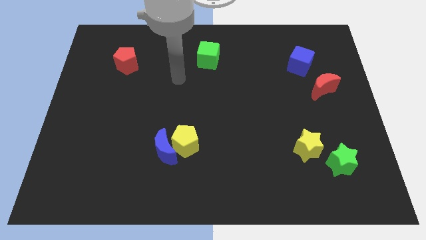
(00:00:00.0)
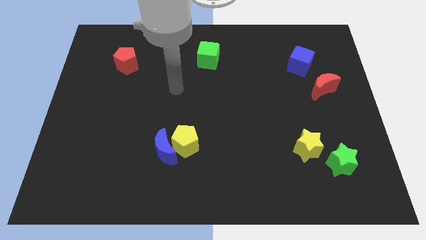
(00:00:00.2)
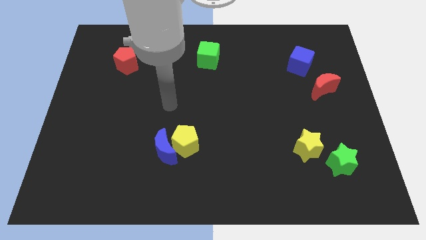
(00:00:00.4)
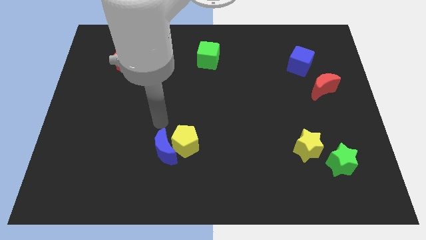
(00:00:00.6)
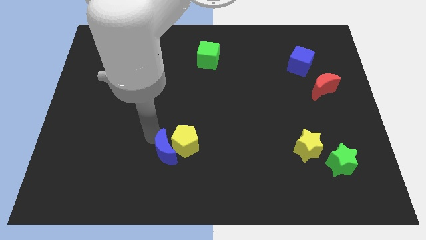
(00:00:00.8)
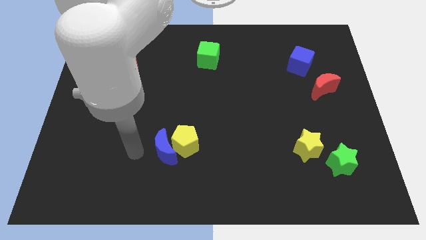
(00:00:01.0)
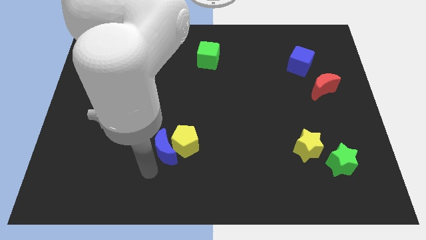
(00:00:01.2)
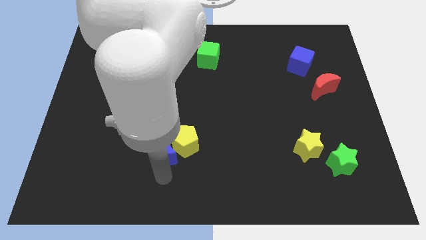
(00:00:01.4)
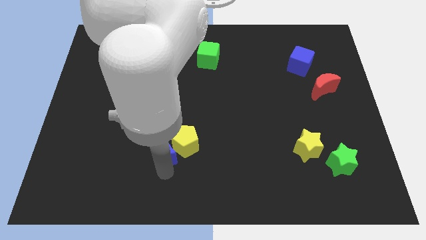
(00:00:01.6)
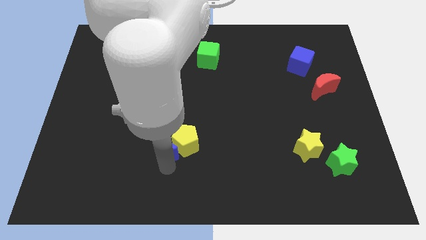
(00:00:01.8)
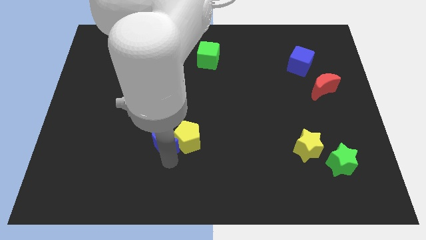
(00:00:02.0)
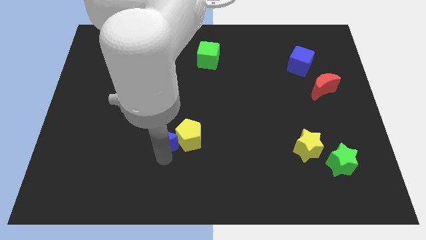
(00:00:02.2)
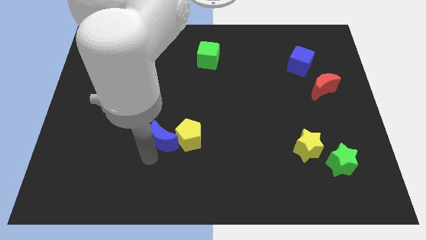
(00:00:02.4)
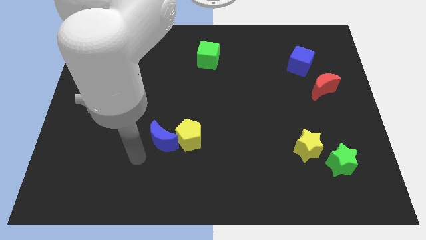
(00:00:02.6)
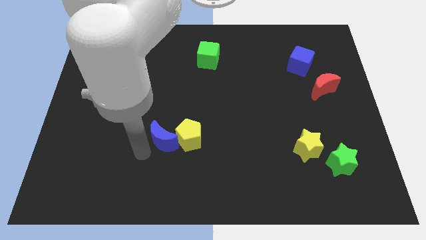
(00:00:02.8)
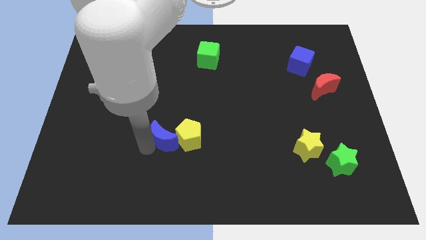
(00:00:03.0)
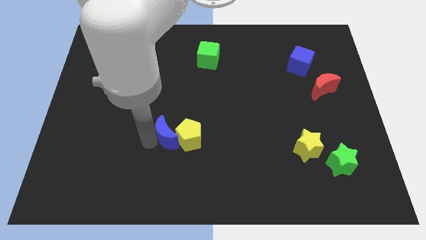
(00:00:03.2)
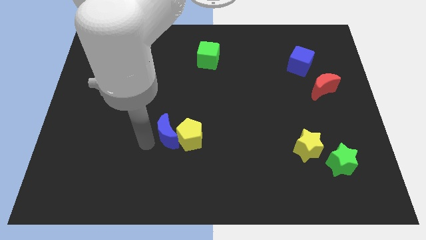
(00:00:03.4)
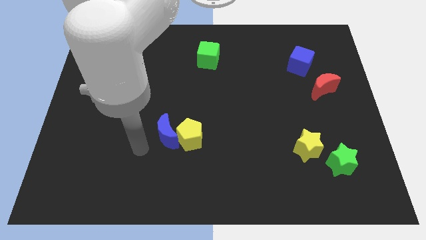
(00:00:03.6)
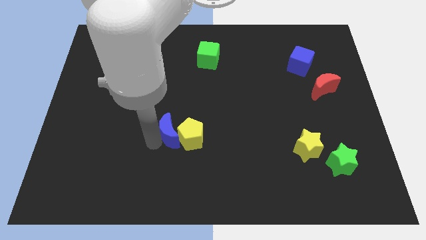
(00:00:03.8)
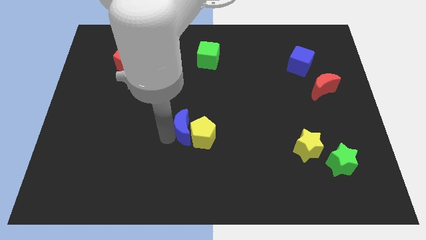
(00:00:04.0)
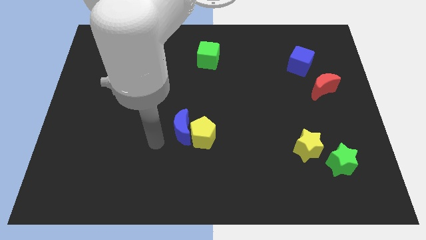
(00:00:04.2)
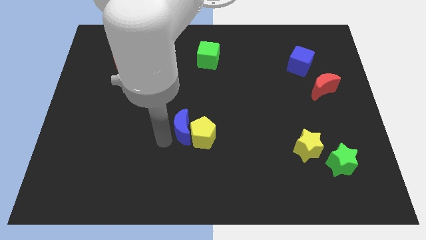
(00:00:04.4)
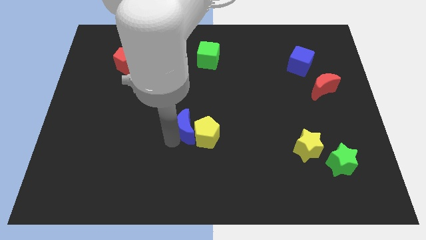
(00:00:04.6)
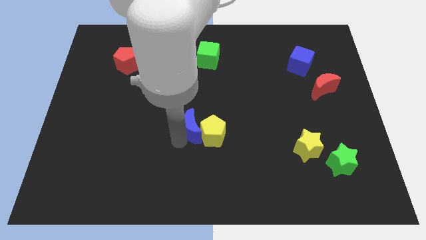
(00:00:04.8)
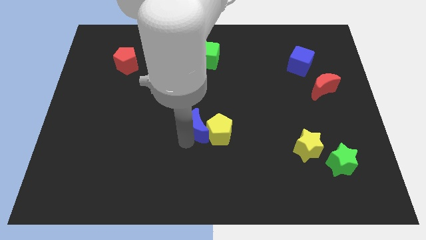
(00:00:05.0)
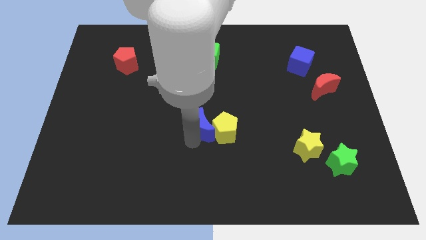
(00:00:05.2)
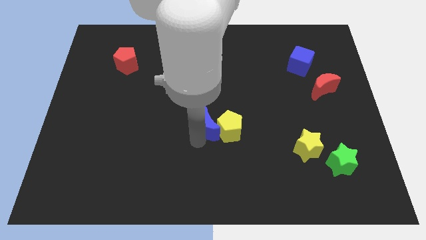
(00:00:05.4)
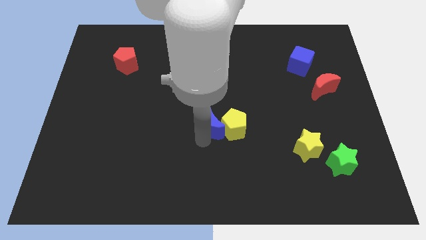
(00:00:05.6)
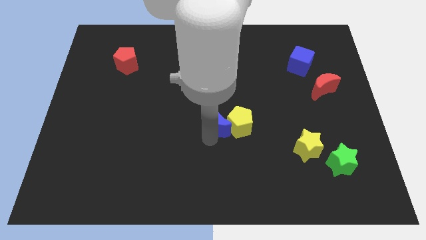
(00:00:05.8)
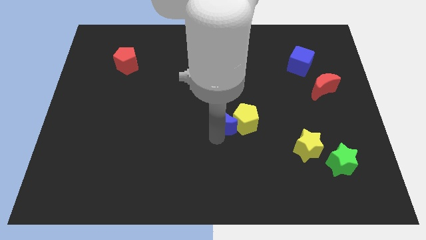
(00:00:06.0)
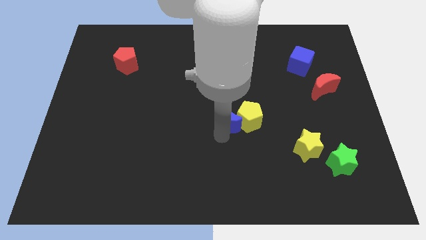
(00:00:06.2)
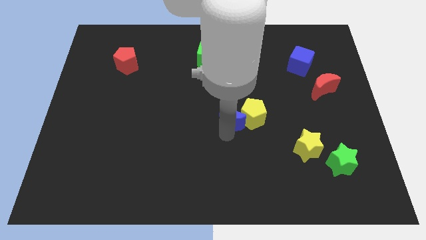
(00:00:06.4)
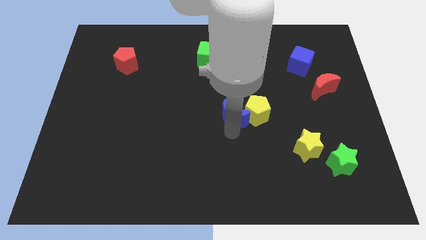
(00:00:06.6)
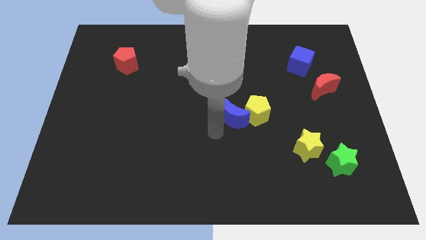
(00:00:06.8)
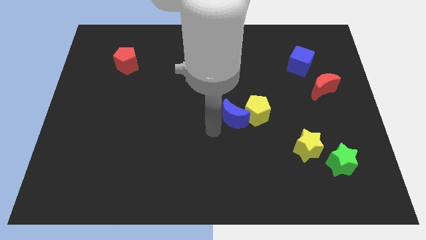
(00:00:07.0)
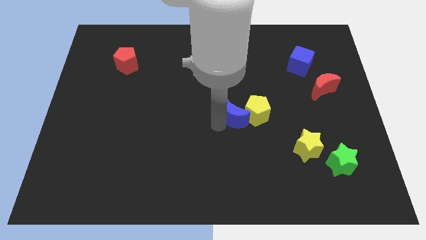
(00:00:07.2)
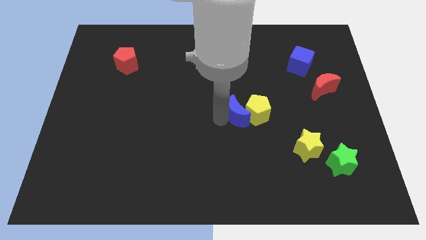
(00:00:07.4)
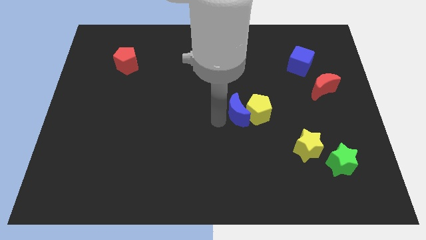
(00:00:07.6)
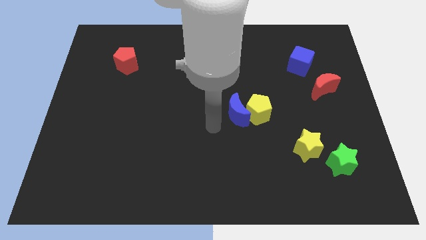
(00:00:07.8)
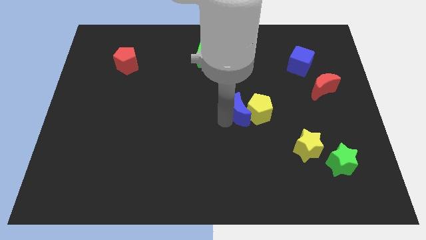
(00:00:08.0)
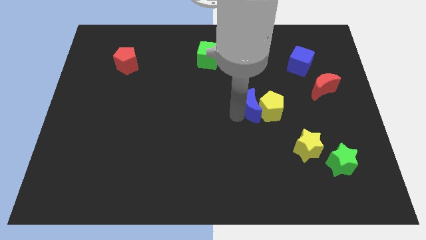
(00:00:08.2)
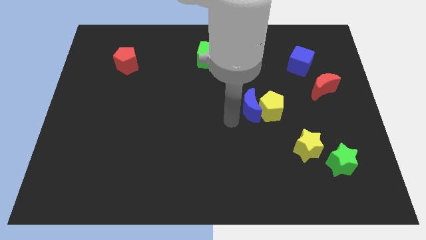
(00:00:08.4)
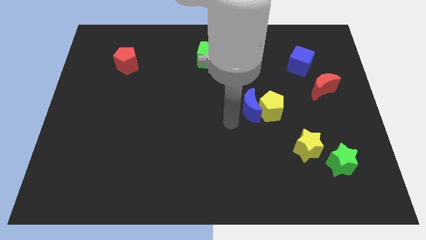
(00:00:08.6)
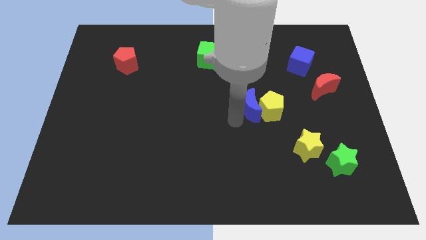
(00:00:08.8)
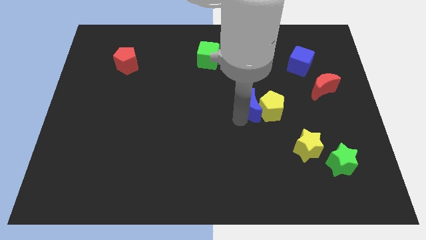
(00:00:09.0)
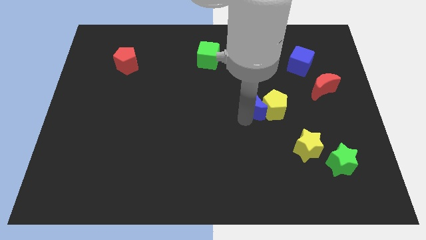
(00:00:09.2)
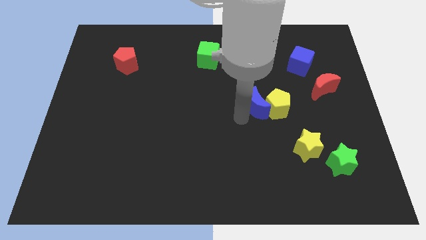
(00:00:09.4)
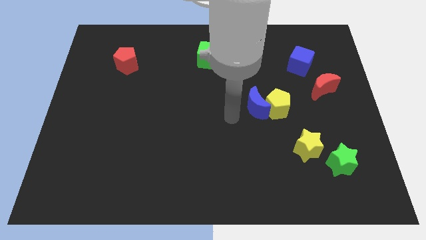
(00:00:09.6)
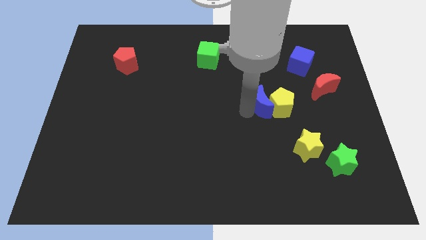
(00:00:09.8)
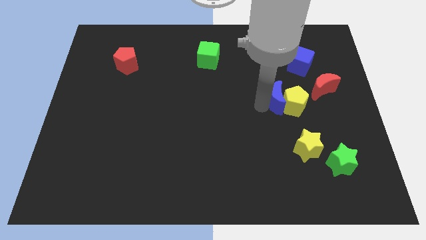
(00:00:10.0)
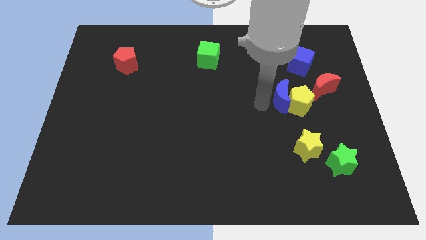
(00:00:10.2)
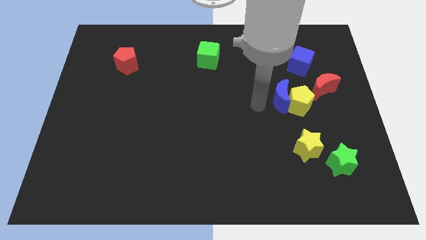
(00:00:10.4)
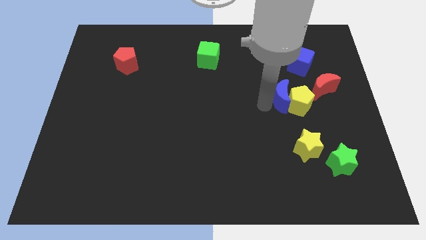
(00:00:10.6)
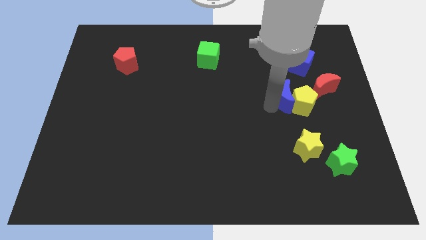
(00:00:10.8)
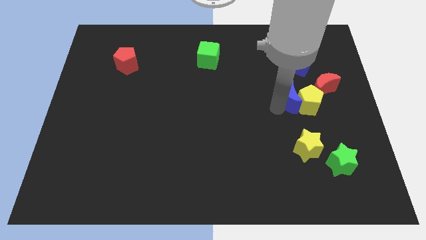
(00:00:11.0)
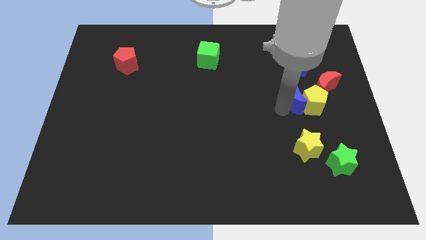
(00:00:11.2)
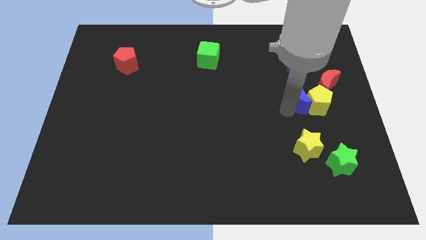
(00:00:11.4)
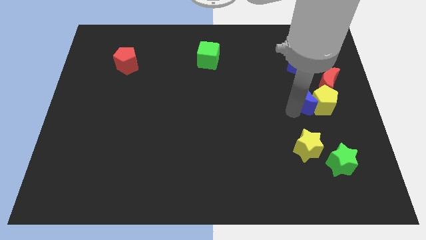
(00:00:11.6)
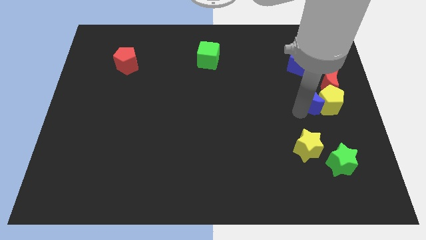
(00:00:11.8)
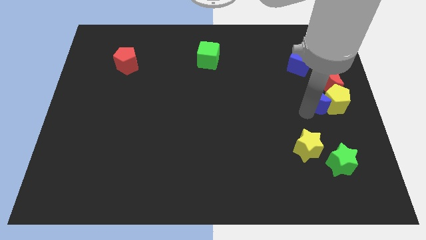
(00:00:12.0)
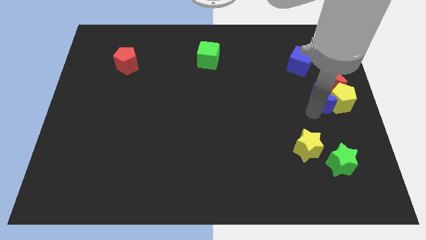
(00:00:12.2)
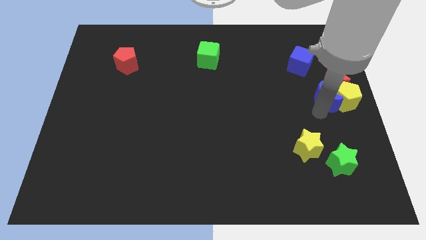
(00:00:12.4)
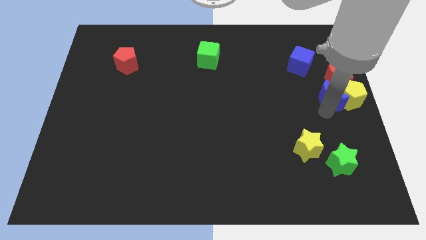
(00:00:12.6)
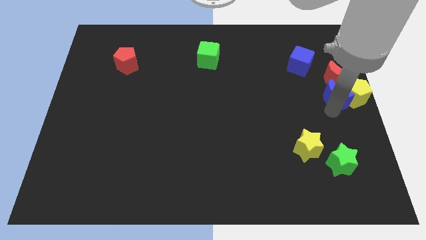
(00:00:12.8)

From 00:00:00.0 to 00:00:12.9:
push the blue moon towards the red moon

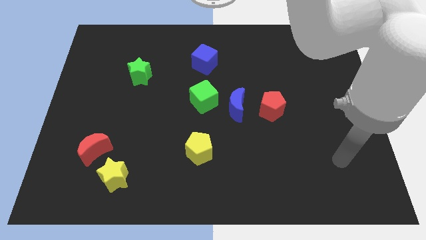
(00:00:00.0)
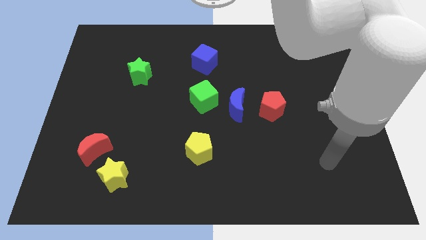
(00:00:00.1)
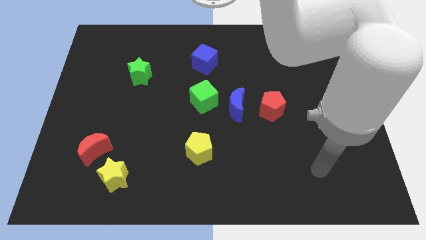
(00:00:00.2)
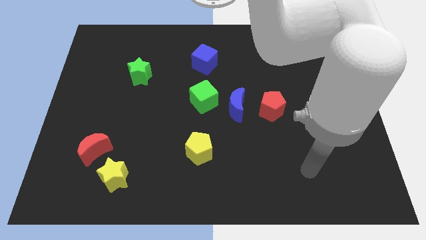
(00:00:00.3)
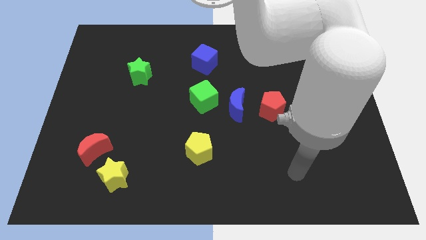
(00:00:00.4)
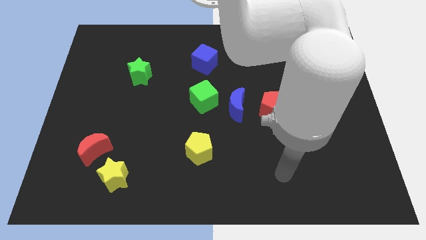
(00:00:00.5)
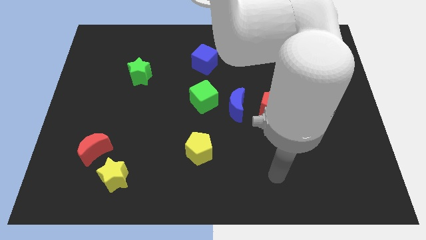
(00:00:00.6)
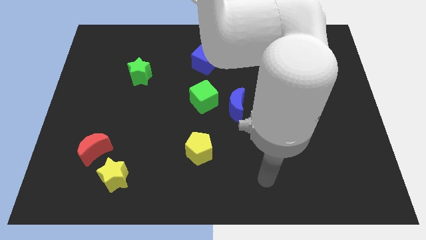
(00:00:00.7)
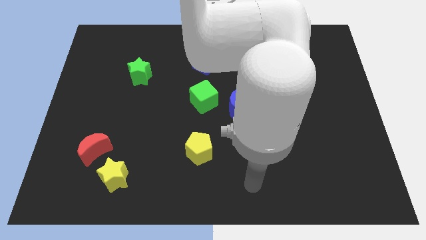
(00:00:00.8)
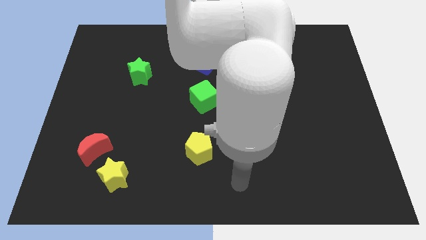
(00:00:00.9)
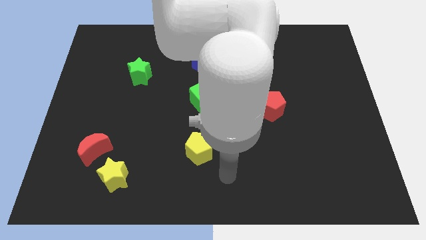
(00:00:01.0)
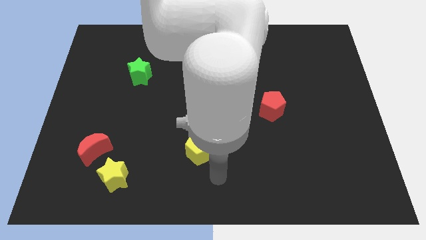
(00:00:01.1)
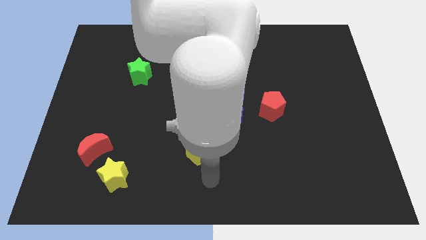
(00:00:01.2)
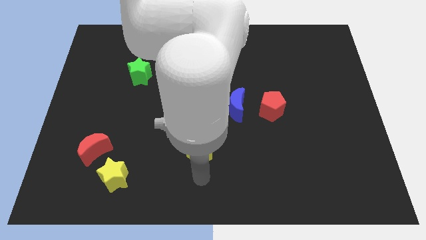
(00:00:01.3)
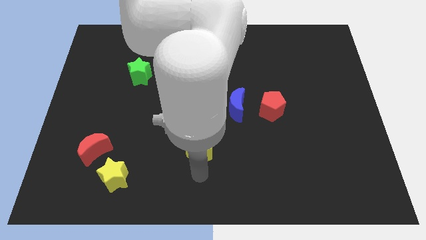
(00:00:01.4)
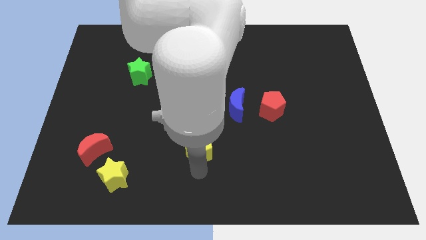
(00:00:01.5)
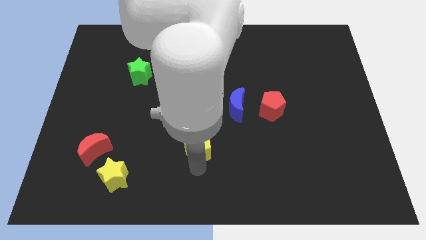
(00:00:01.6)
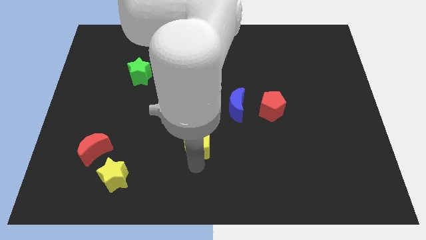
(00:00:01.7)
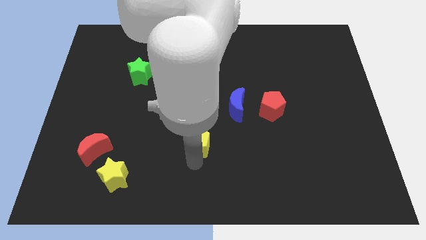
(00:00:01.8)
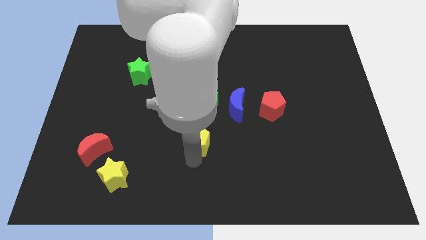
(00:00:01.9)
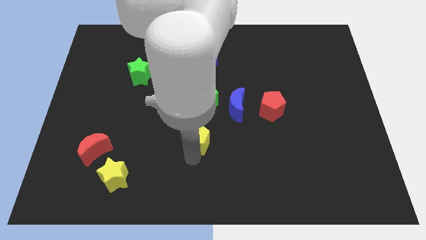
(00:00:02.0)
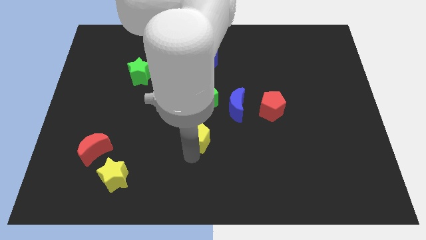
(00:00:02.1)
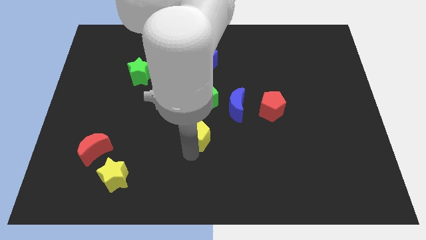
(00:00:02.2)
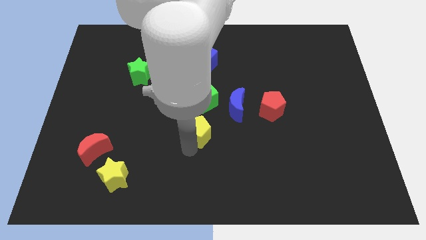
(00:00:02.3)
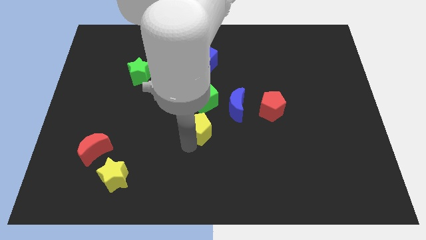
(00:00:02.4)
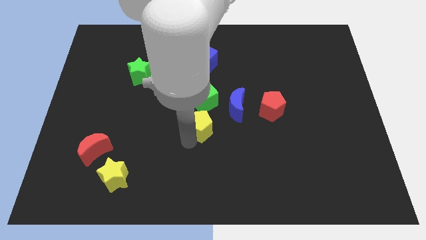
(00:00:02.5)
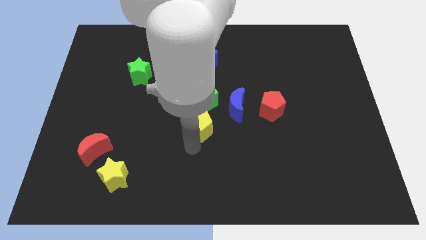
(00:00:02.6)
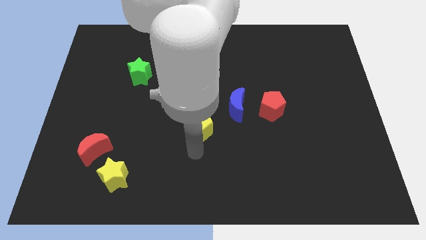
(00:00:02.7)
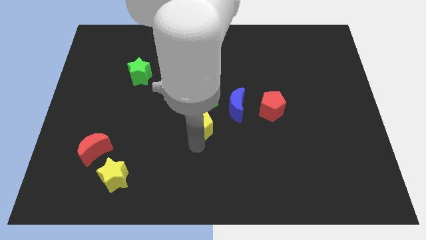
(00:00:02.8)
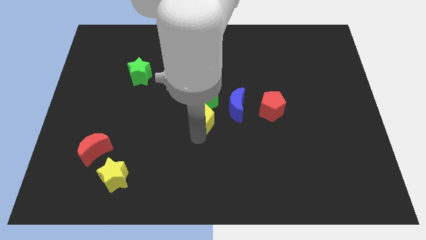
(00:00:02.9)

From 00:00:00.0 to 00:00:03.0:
put the yellow pentagon next to the green cube
